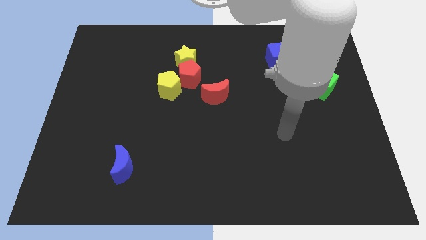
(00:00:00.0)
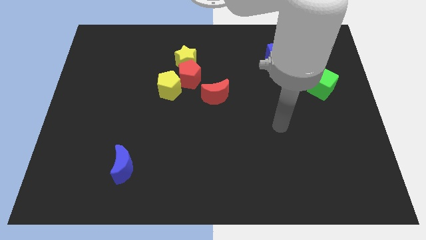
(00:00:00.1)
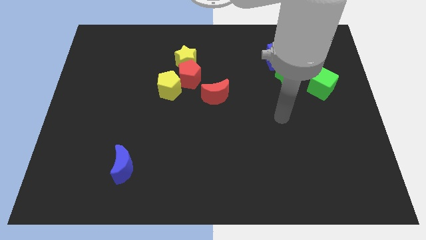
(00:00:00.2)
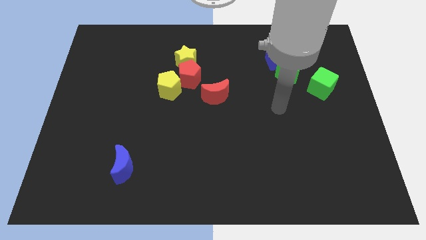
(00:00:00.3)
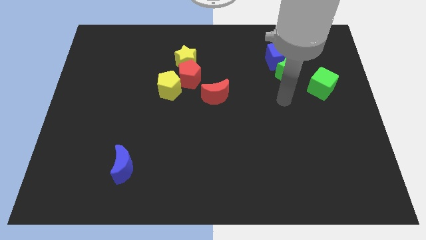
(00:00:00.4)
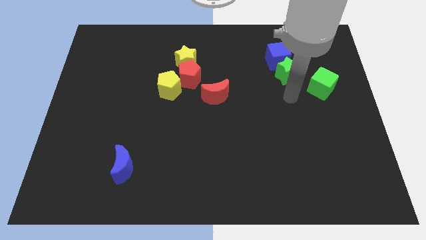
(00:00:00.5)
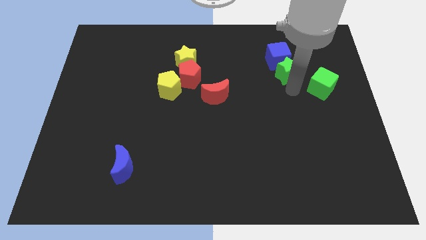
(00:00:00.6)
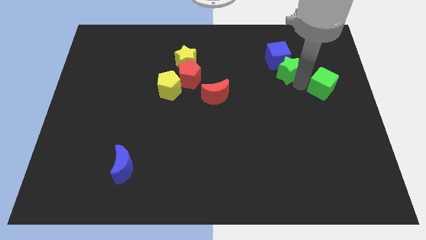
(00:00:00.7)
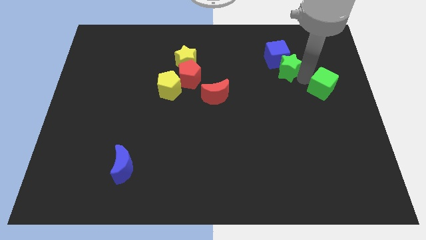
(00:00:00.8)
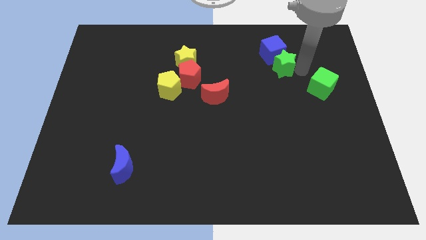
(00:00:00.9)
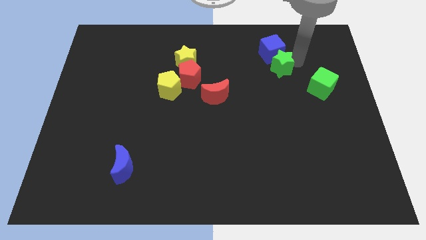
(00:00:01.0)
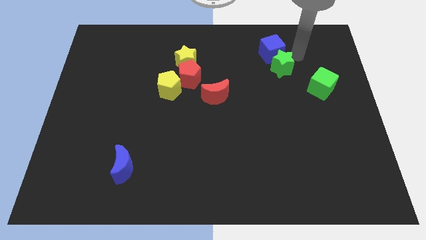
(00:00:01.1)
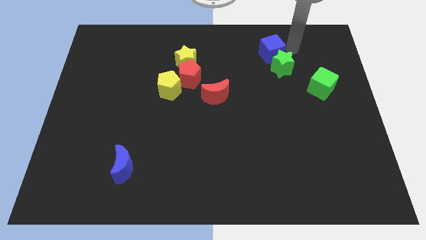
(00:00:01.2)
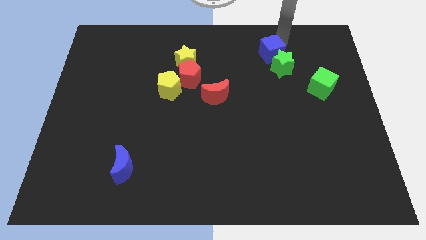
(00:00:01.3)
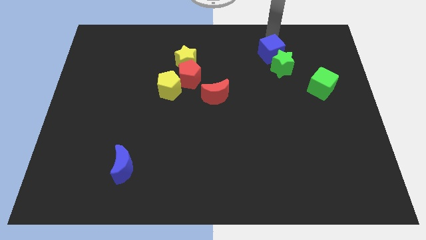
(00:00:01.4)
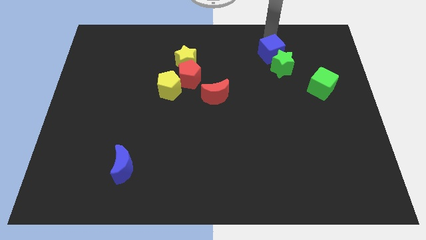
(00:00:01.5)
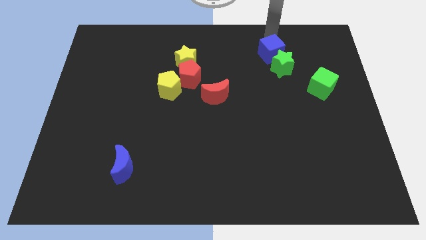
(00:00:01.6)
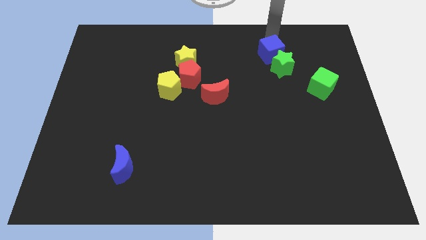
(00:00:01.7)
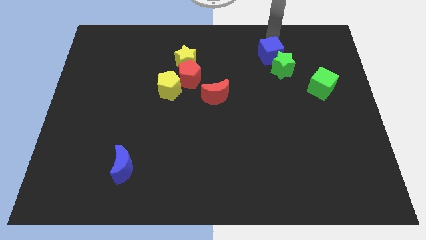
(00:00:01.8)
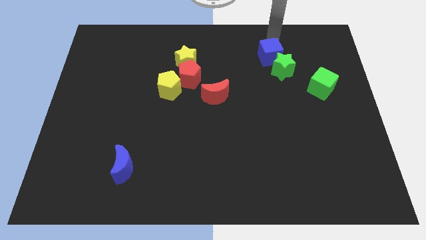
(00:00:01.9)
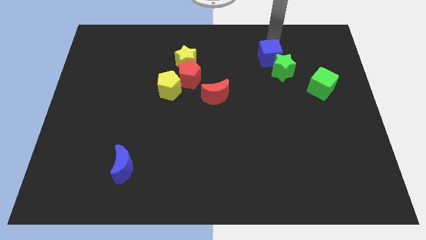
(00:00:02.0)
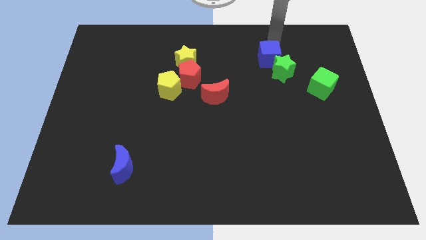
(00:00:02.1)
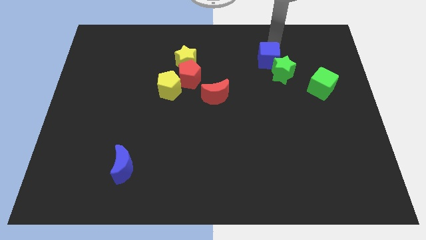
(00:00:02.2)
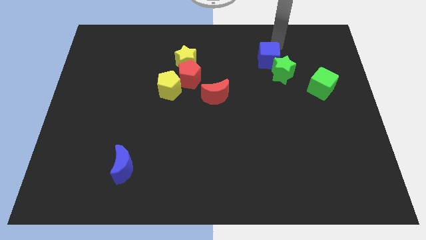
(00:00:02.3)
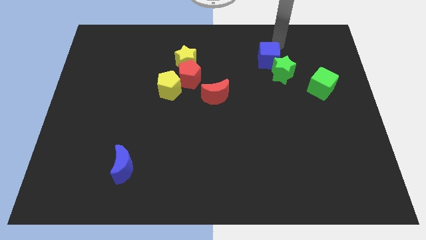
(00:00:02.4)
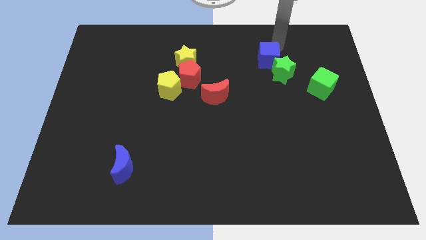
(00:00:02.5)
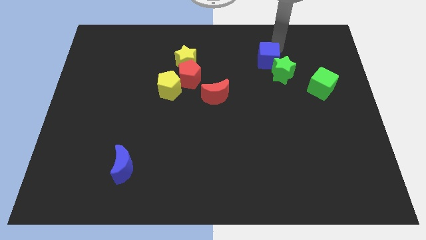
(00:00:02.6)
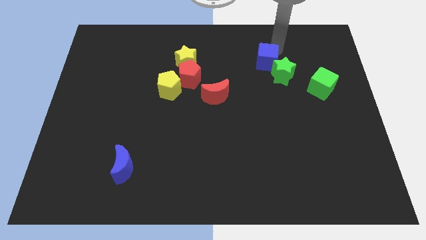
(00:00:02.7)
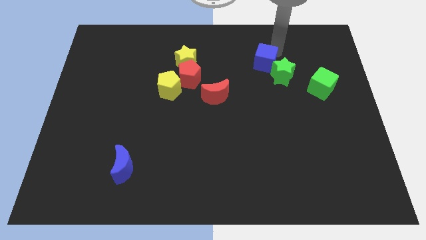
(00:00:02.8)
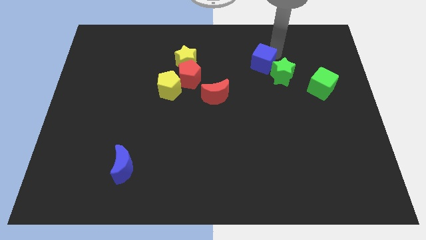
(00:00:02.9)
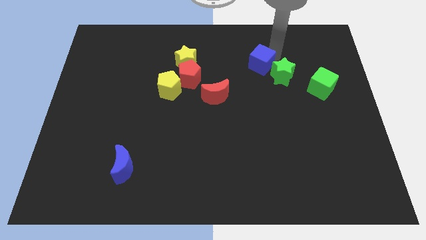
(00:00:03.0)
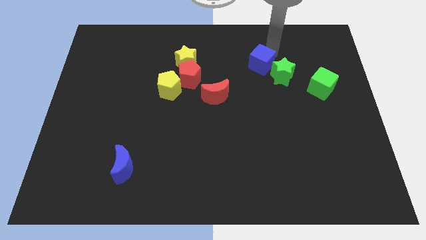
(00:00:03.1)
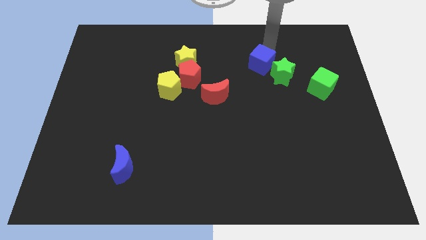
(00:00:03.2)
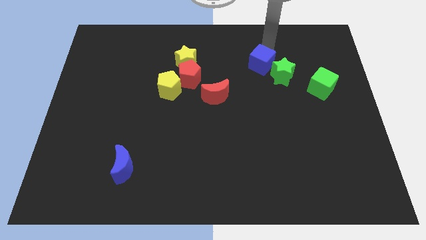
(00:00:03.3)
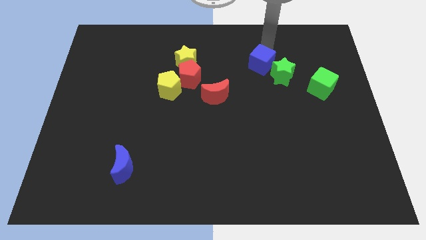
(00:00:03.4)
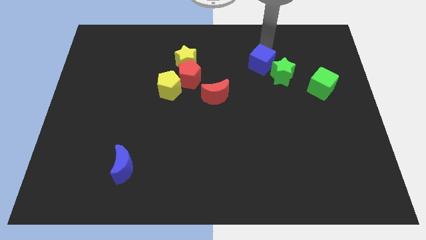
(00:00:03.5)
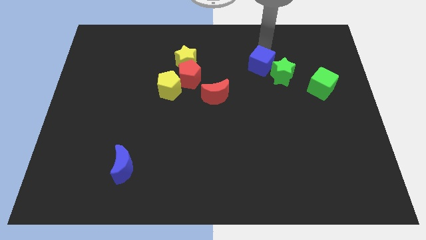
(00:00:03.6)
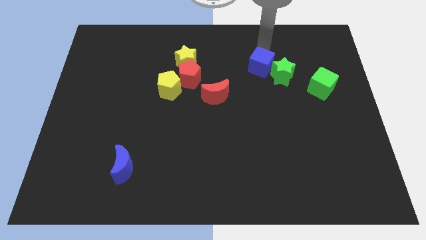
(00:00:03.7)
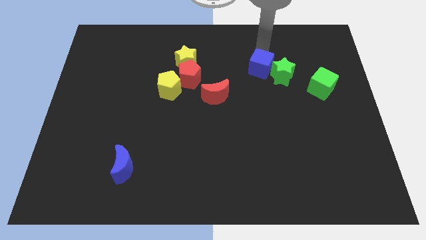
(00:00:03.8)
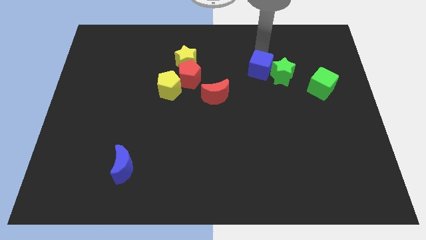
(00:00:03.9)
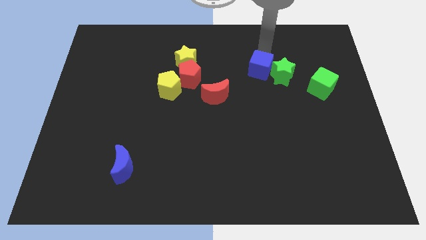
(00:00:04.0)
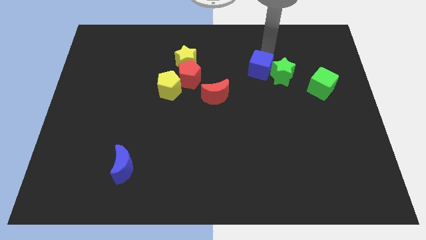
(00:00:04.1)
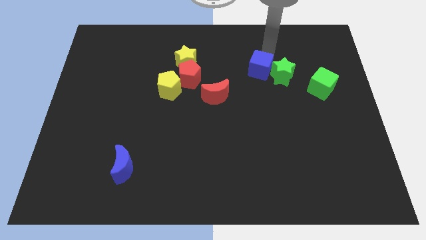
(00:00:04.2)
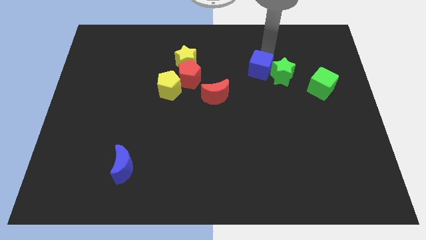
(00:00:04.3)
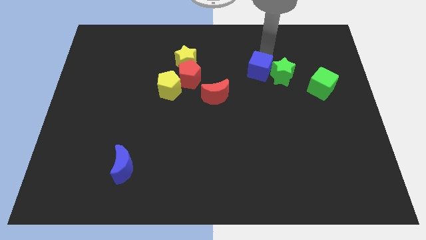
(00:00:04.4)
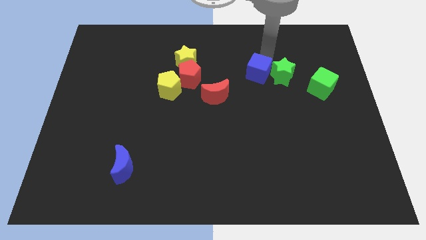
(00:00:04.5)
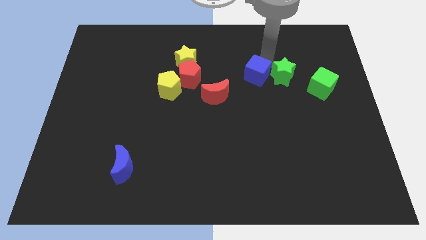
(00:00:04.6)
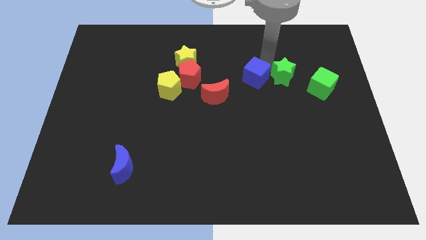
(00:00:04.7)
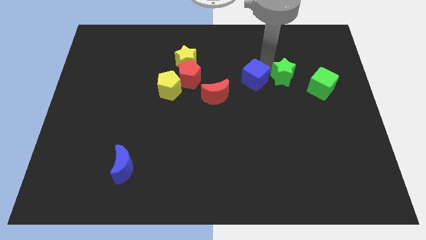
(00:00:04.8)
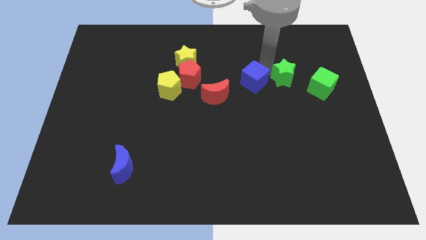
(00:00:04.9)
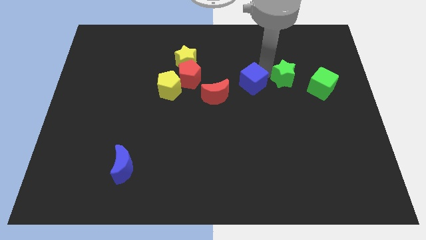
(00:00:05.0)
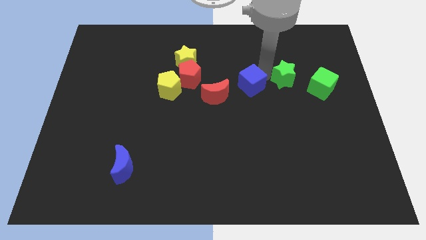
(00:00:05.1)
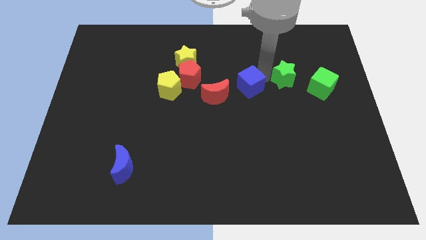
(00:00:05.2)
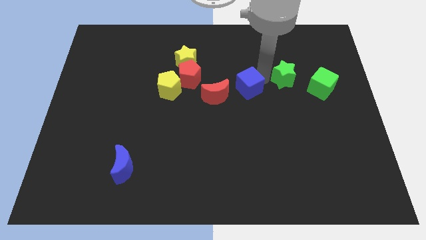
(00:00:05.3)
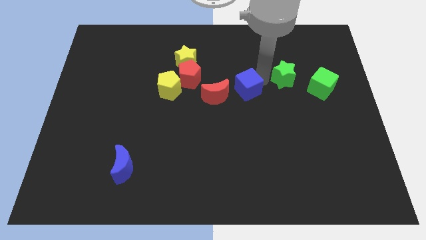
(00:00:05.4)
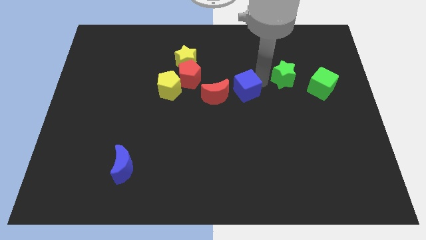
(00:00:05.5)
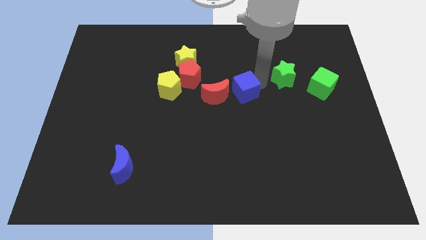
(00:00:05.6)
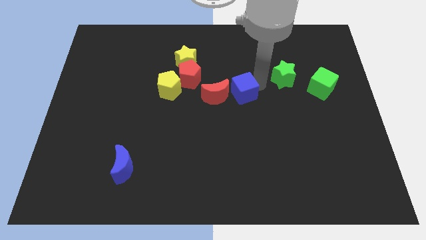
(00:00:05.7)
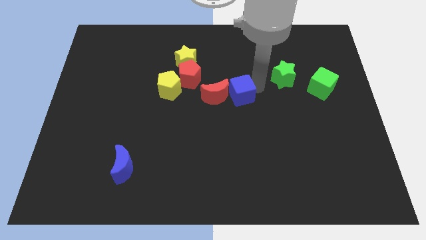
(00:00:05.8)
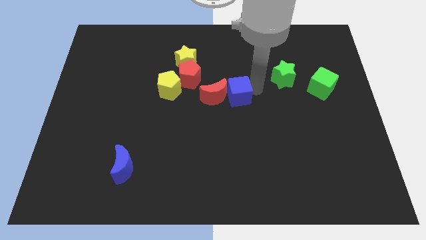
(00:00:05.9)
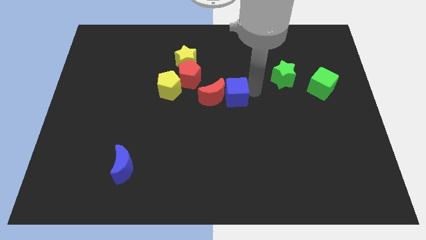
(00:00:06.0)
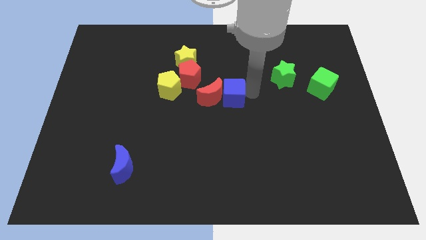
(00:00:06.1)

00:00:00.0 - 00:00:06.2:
move the blue cube right of the yellow pentagon
